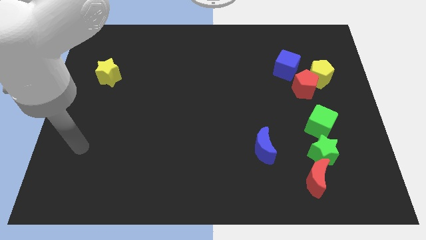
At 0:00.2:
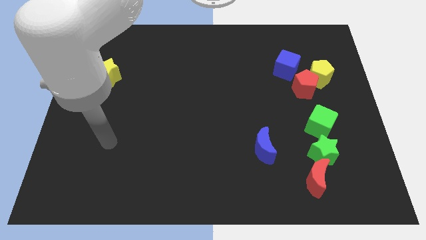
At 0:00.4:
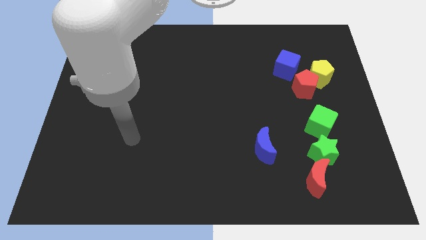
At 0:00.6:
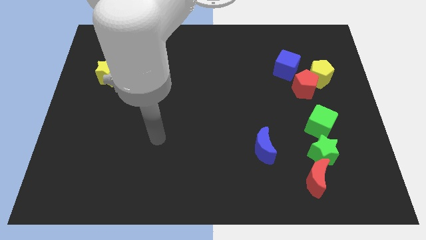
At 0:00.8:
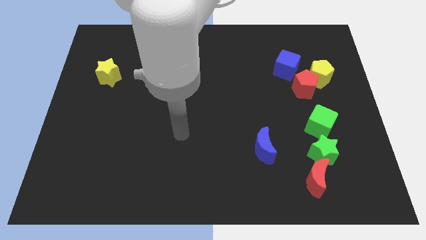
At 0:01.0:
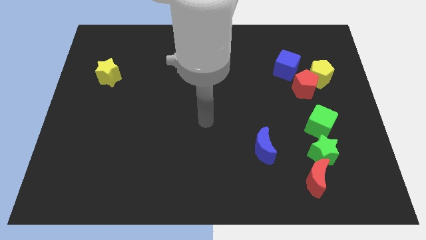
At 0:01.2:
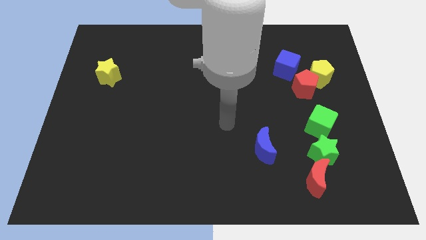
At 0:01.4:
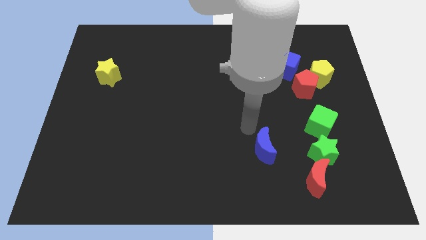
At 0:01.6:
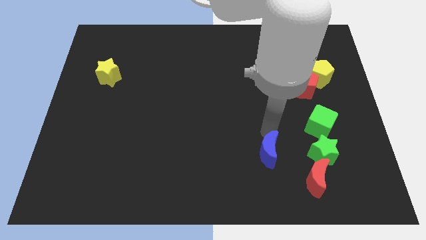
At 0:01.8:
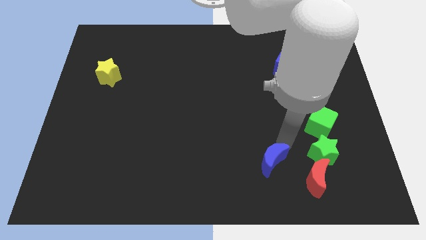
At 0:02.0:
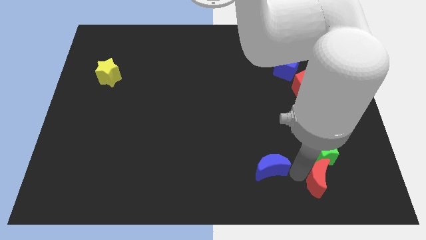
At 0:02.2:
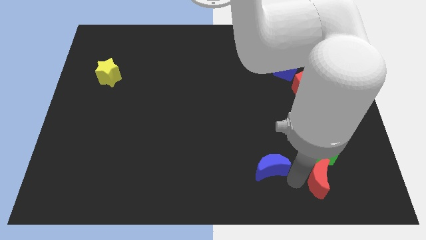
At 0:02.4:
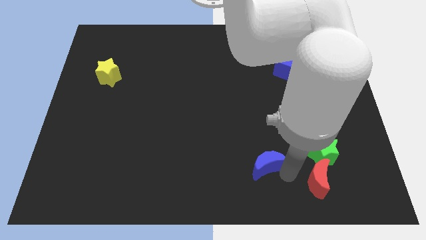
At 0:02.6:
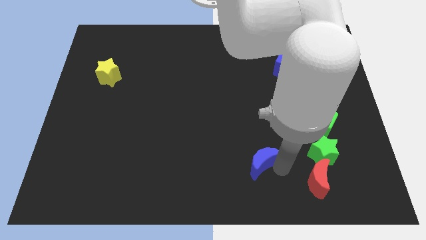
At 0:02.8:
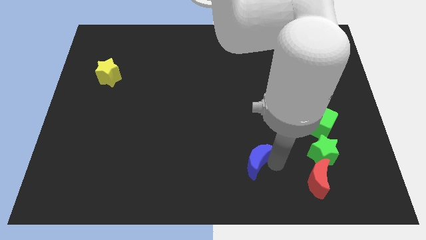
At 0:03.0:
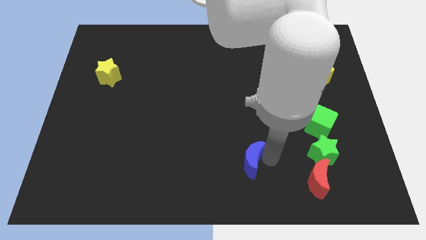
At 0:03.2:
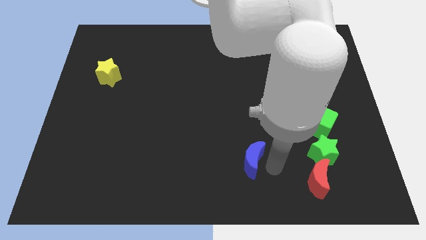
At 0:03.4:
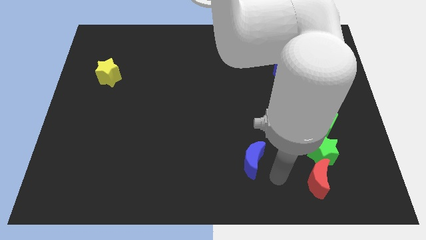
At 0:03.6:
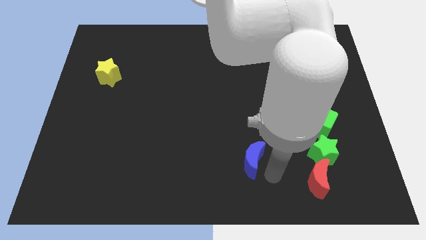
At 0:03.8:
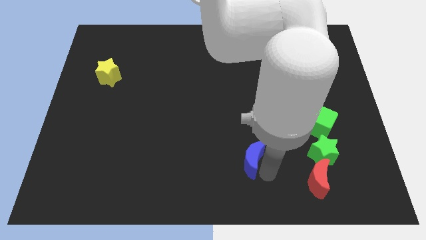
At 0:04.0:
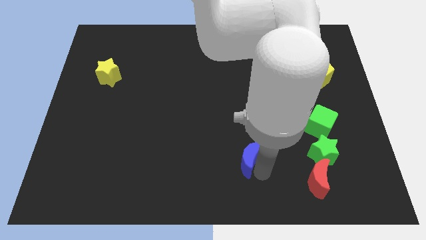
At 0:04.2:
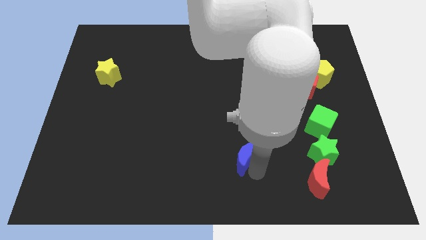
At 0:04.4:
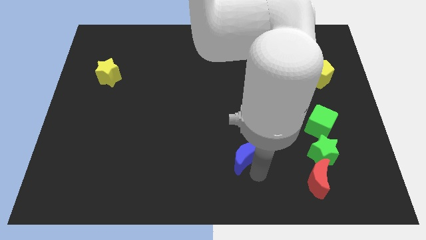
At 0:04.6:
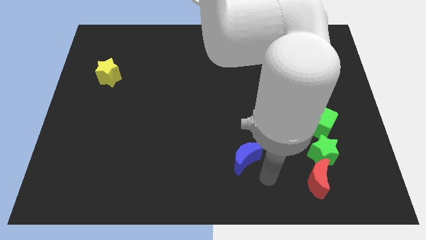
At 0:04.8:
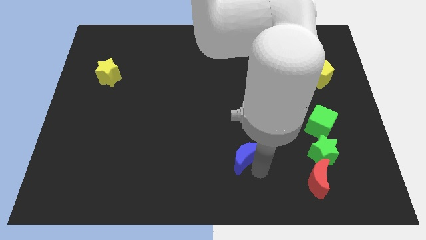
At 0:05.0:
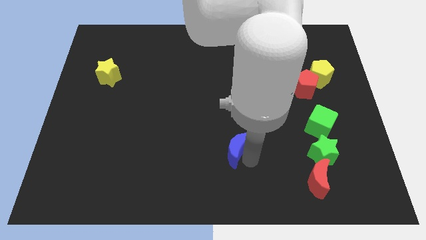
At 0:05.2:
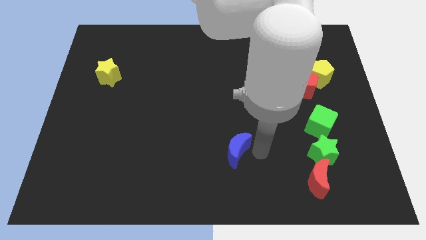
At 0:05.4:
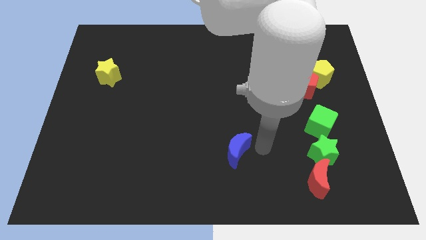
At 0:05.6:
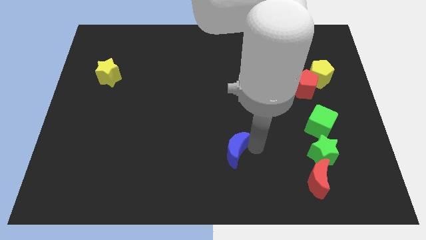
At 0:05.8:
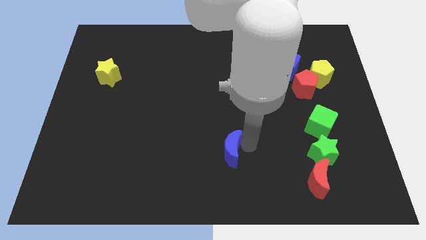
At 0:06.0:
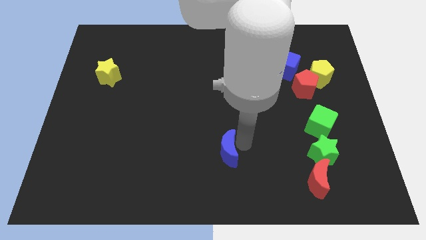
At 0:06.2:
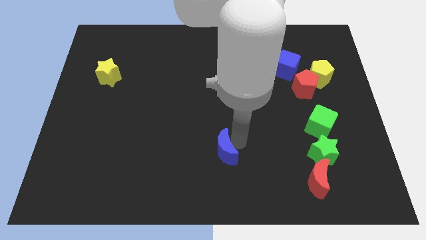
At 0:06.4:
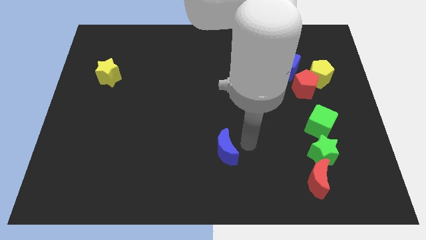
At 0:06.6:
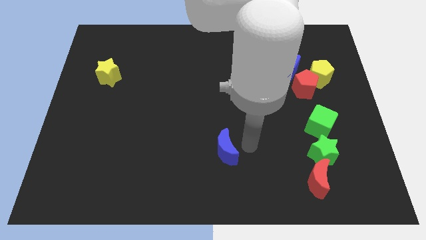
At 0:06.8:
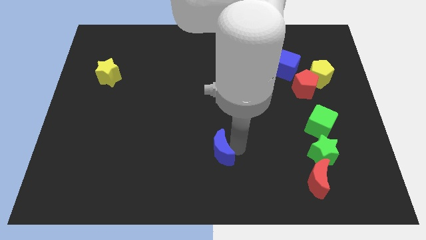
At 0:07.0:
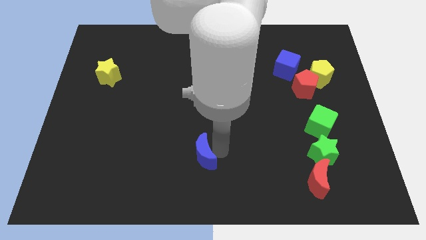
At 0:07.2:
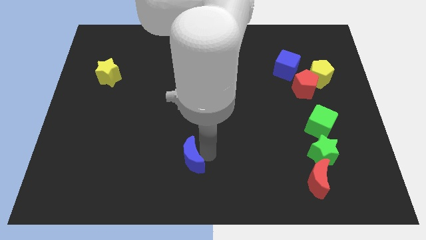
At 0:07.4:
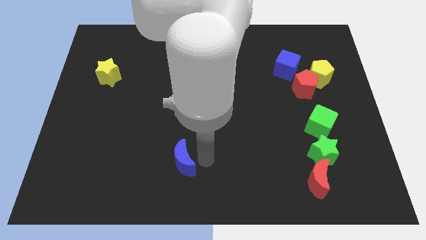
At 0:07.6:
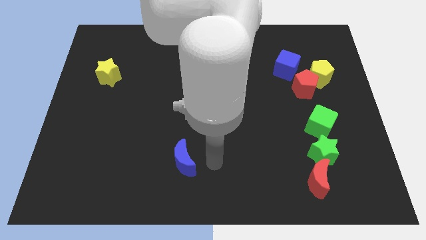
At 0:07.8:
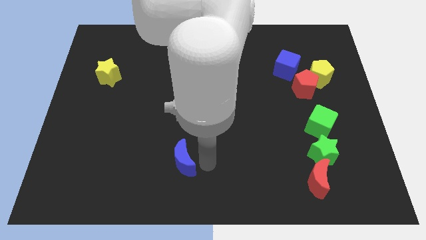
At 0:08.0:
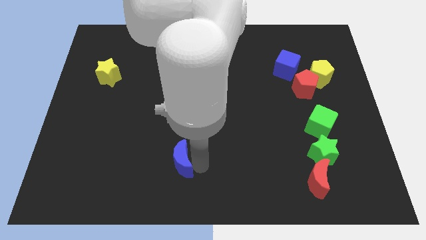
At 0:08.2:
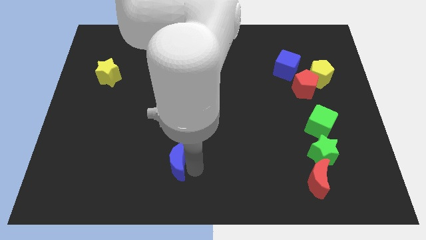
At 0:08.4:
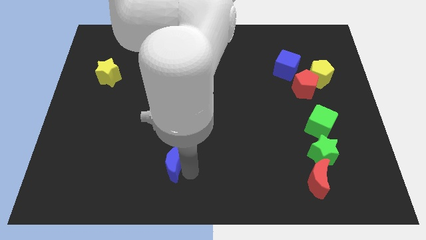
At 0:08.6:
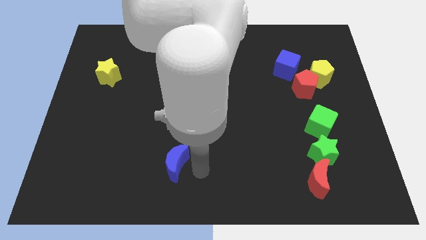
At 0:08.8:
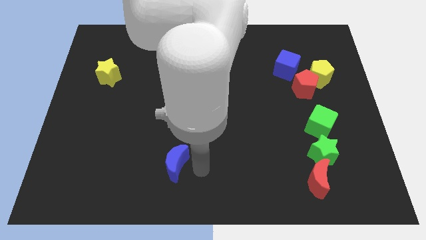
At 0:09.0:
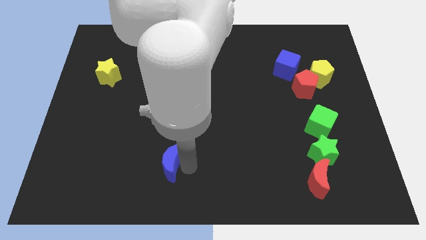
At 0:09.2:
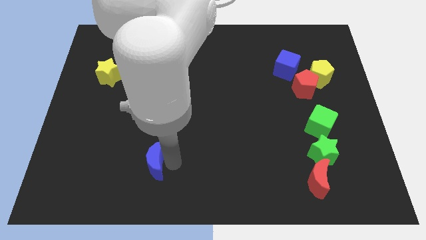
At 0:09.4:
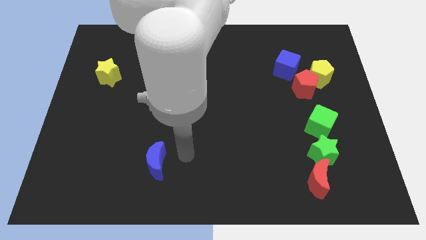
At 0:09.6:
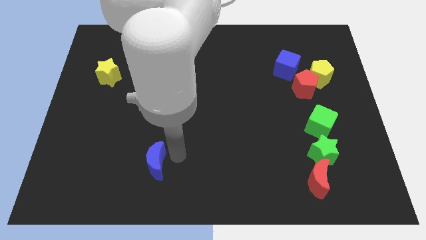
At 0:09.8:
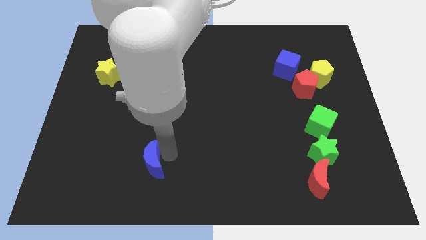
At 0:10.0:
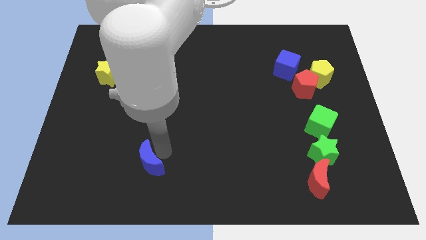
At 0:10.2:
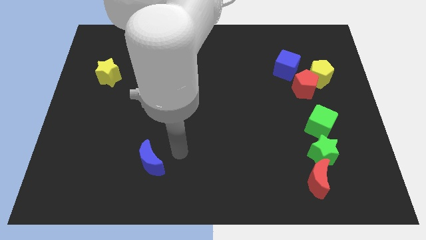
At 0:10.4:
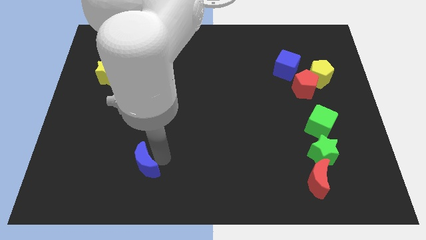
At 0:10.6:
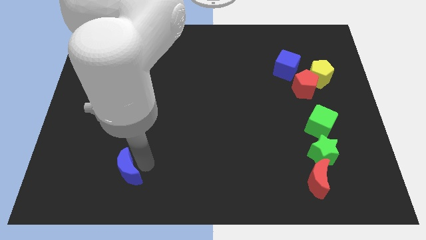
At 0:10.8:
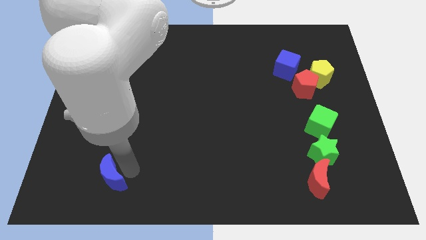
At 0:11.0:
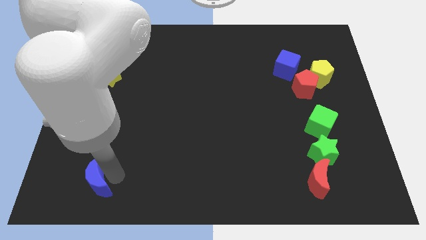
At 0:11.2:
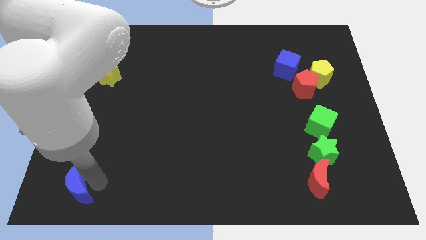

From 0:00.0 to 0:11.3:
put the blue moon to the bottom left

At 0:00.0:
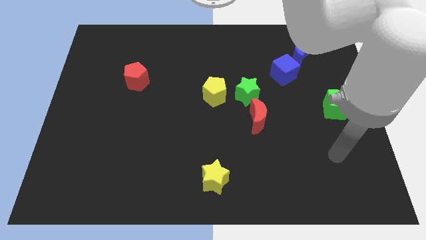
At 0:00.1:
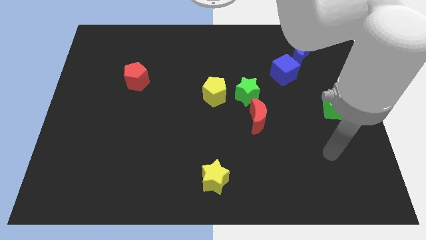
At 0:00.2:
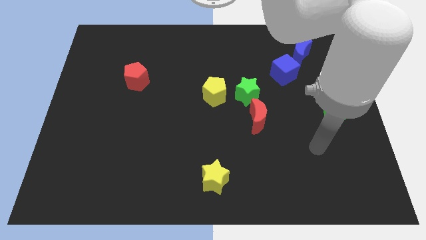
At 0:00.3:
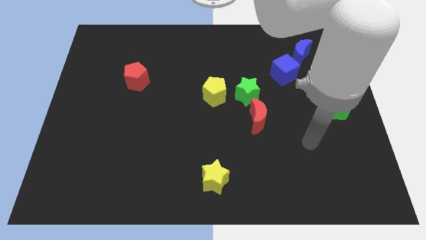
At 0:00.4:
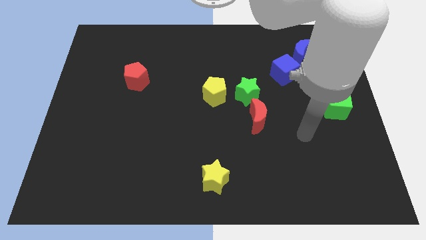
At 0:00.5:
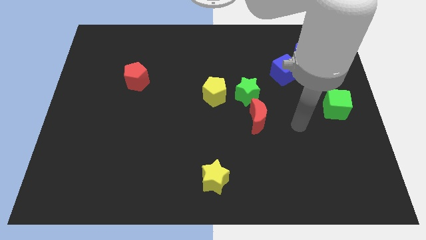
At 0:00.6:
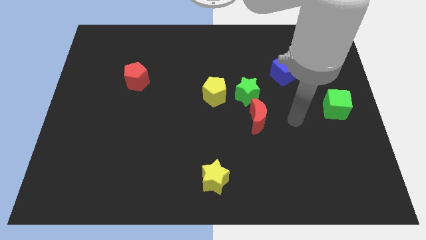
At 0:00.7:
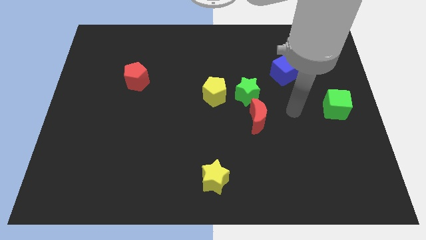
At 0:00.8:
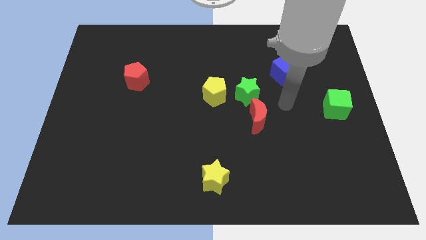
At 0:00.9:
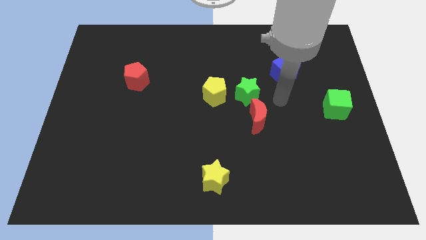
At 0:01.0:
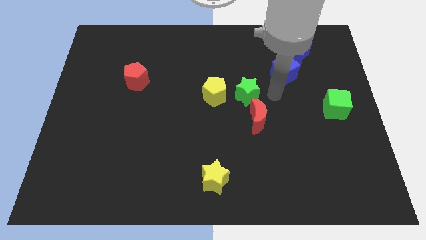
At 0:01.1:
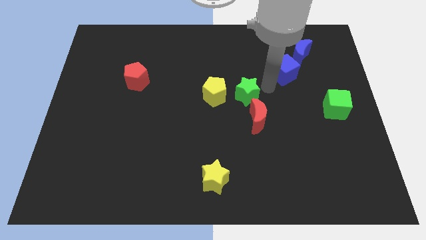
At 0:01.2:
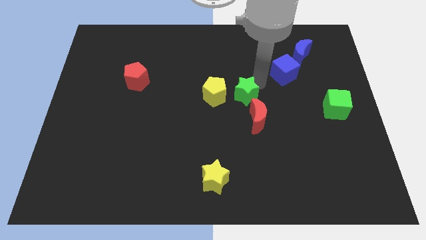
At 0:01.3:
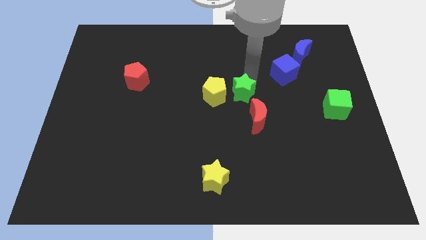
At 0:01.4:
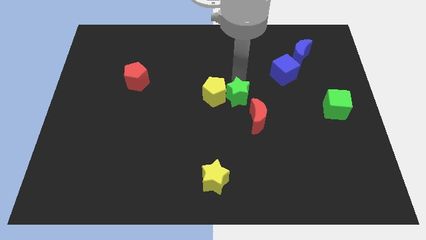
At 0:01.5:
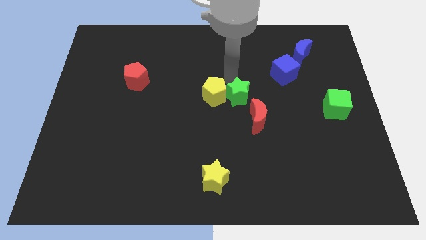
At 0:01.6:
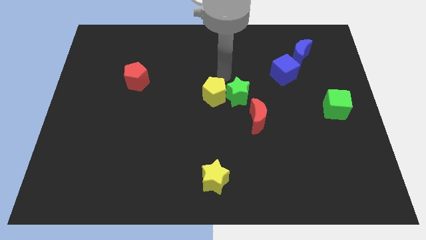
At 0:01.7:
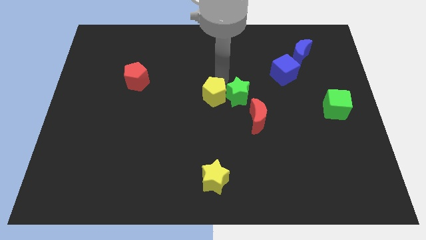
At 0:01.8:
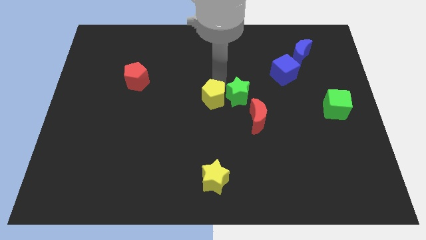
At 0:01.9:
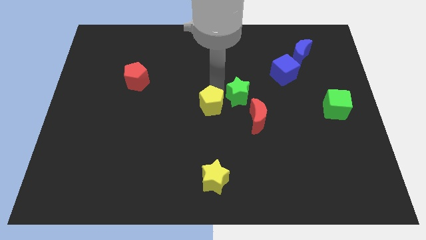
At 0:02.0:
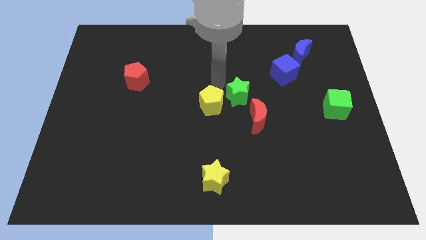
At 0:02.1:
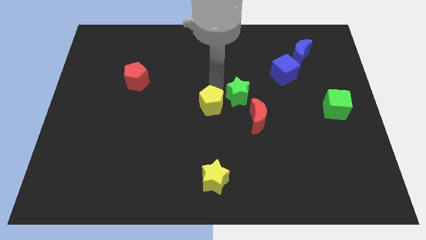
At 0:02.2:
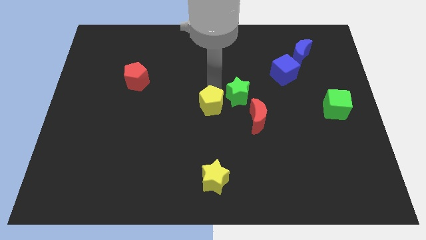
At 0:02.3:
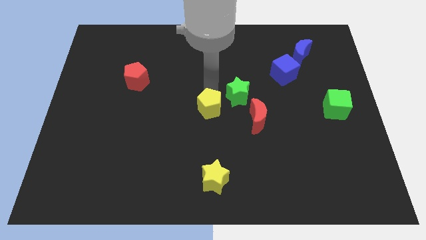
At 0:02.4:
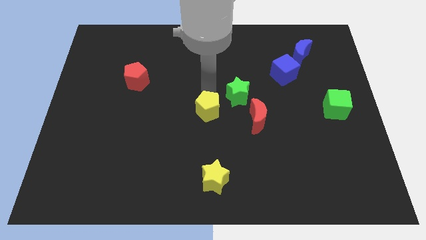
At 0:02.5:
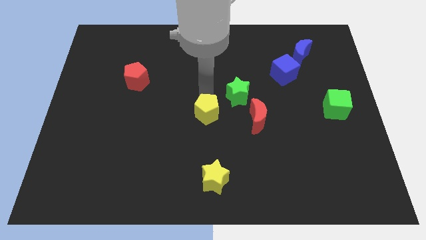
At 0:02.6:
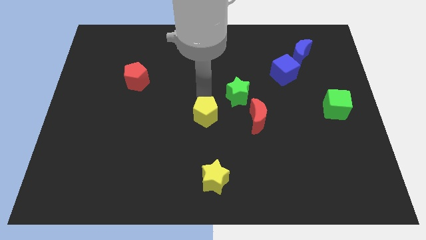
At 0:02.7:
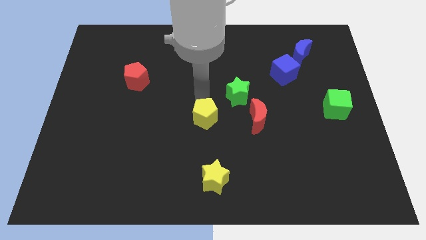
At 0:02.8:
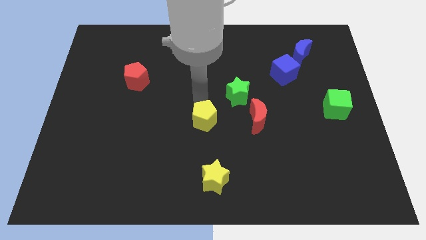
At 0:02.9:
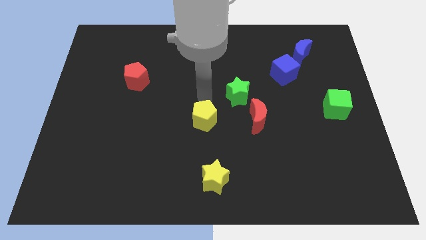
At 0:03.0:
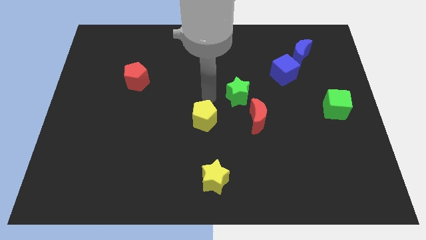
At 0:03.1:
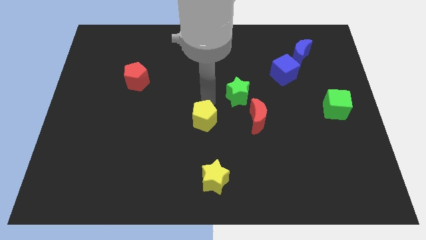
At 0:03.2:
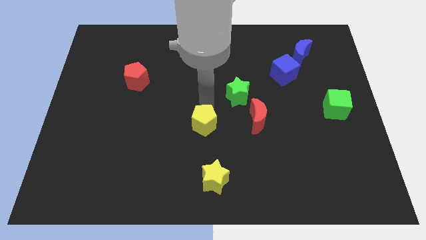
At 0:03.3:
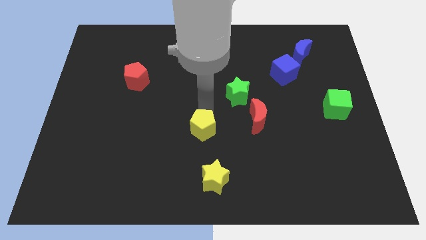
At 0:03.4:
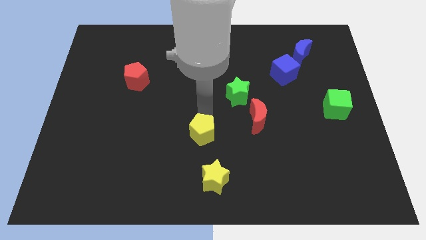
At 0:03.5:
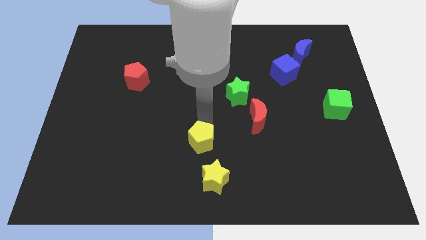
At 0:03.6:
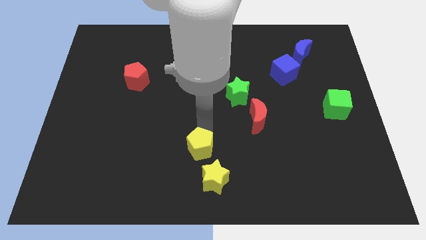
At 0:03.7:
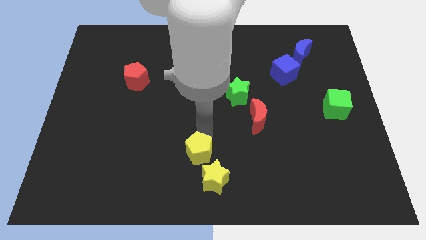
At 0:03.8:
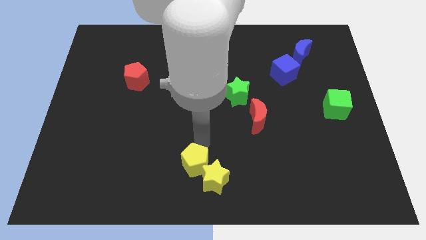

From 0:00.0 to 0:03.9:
push the yellow pentagon to the bottom
